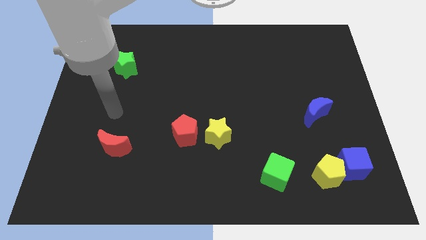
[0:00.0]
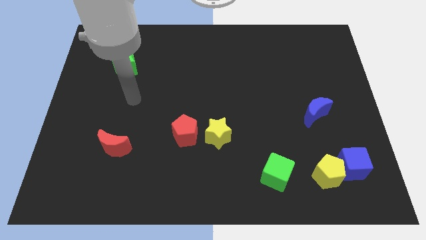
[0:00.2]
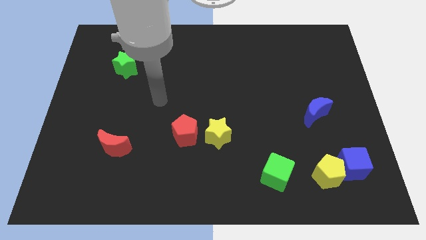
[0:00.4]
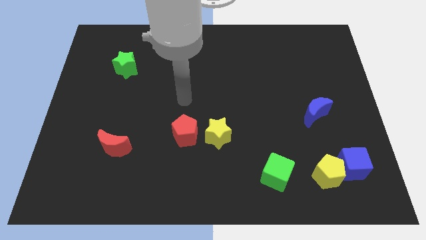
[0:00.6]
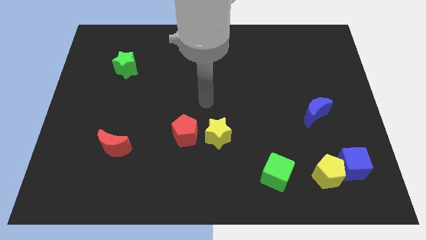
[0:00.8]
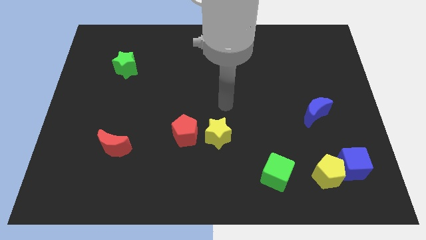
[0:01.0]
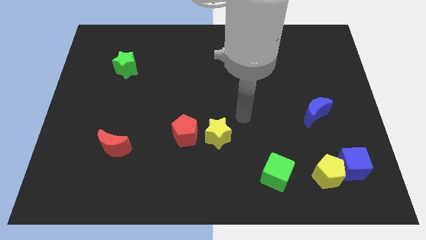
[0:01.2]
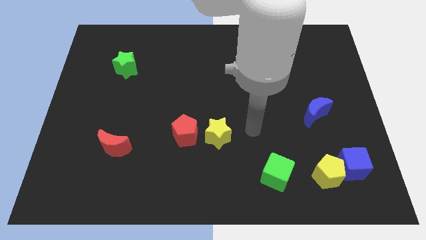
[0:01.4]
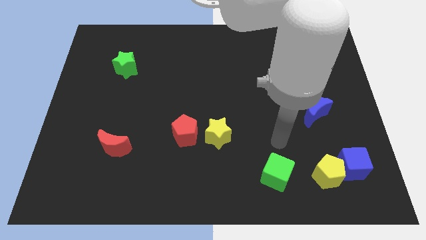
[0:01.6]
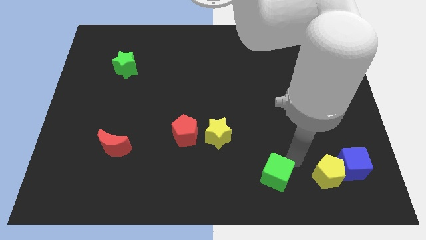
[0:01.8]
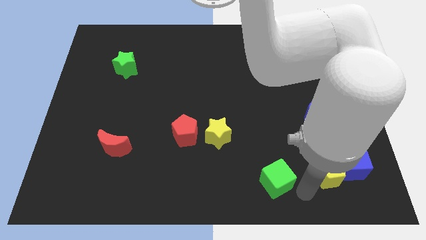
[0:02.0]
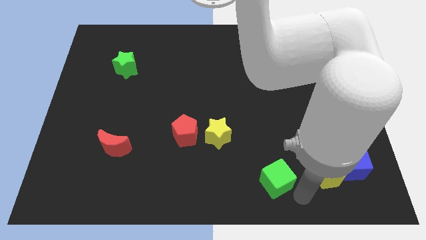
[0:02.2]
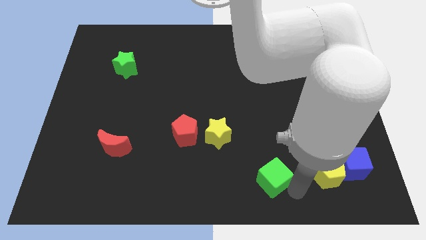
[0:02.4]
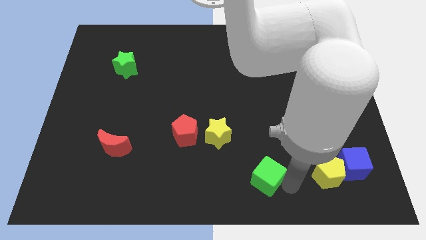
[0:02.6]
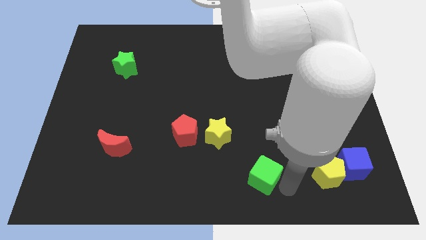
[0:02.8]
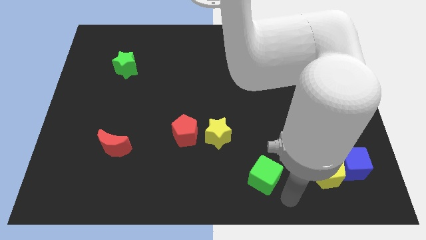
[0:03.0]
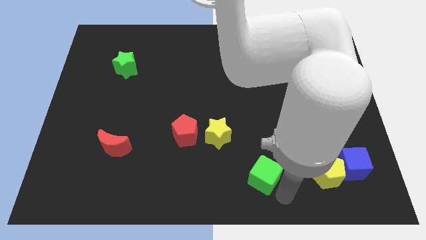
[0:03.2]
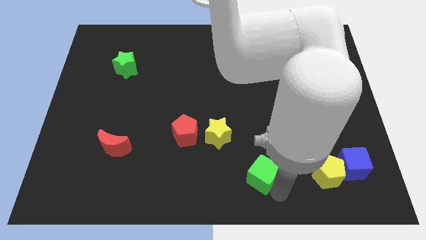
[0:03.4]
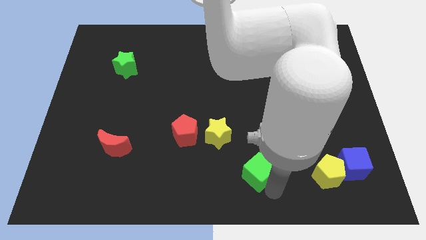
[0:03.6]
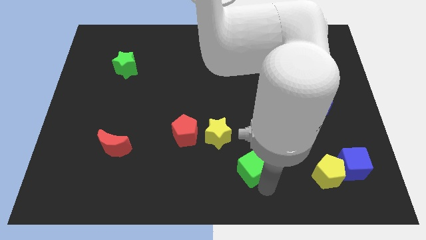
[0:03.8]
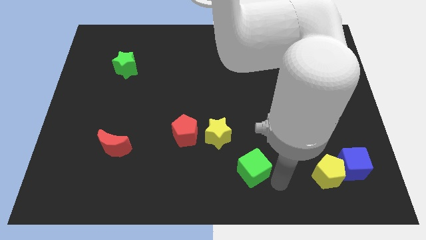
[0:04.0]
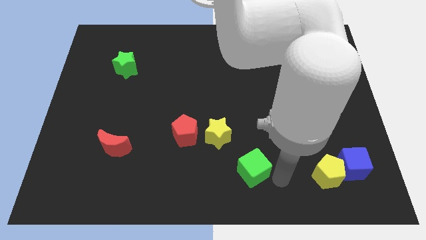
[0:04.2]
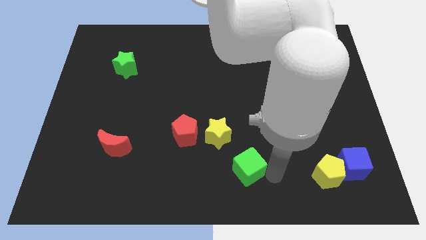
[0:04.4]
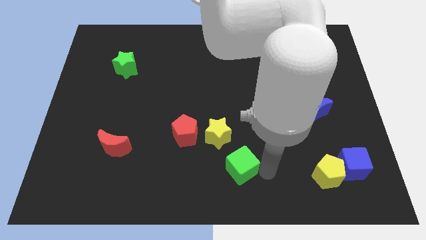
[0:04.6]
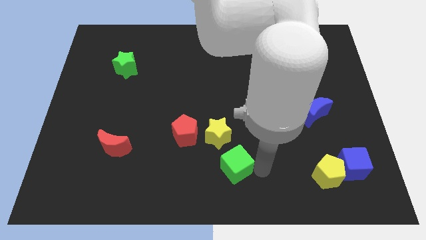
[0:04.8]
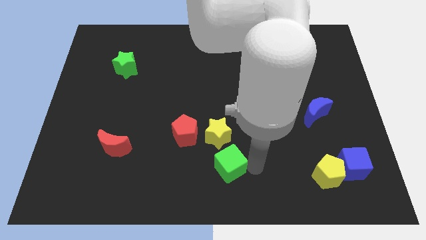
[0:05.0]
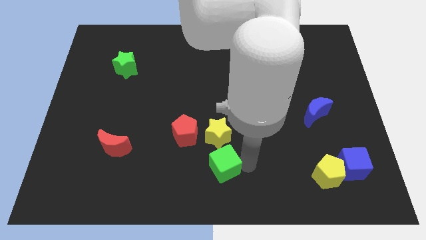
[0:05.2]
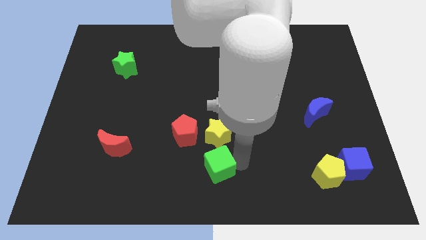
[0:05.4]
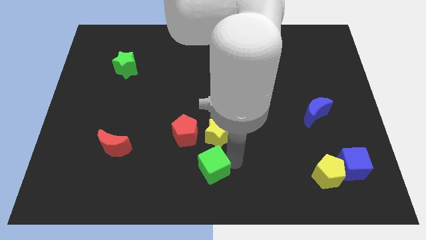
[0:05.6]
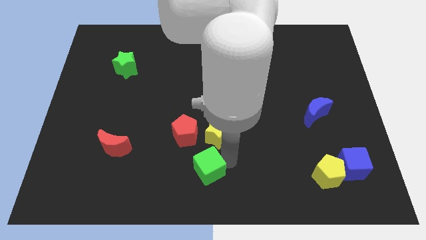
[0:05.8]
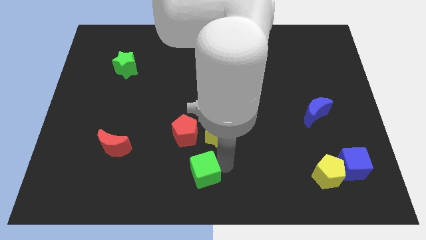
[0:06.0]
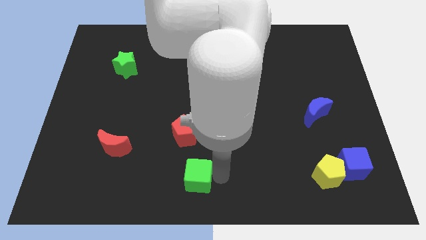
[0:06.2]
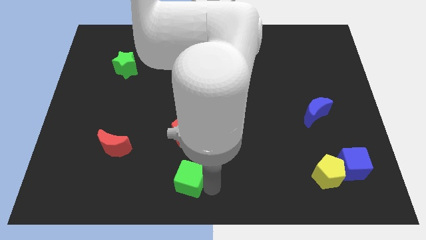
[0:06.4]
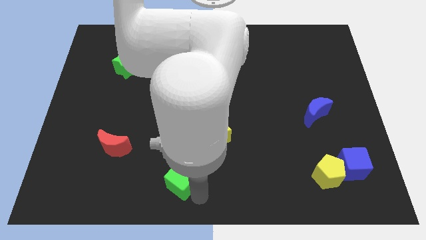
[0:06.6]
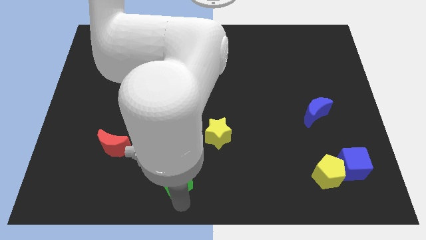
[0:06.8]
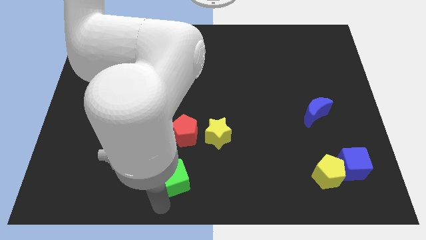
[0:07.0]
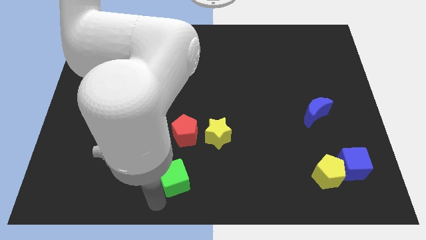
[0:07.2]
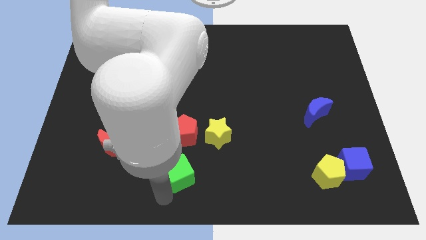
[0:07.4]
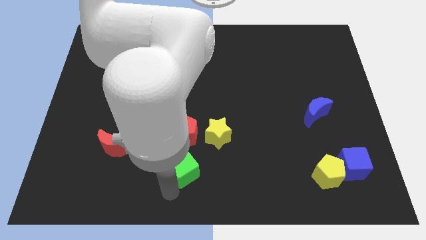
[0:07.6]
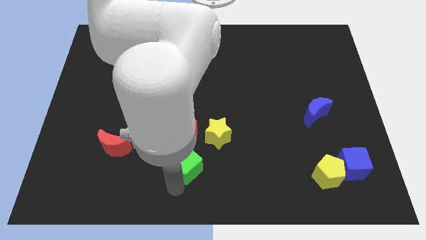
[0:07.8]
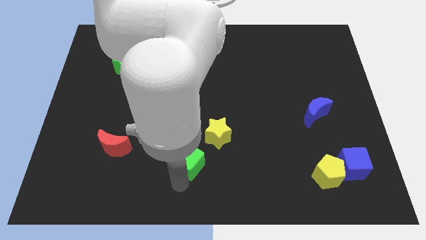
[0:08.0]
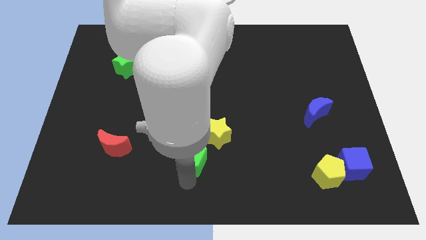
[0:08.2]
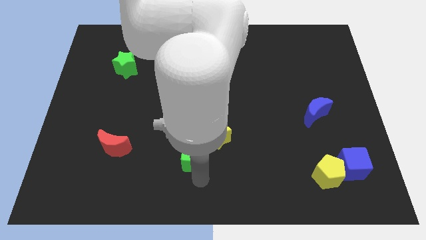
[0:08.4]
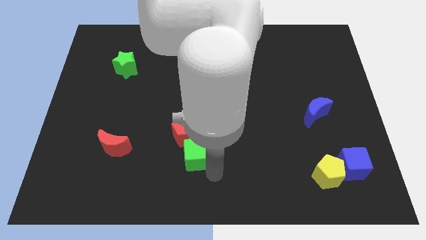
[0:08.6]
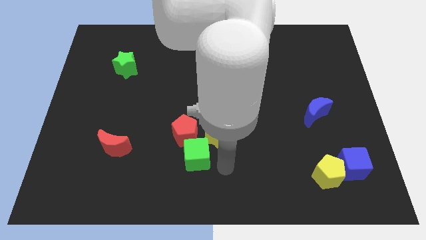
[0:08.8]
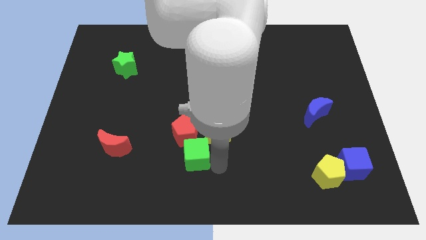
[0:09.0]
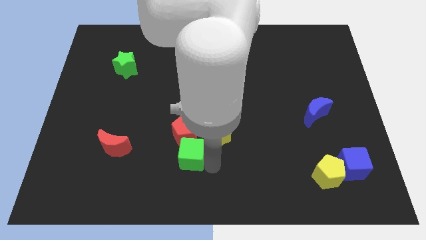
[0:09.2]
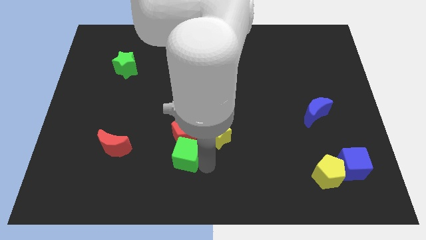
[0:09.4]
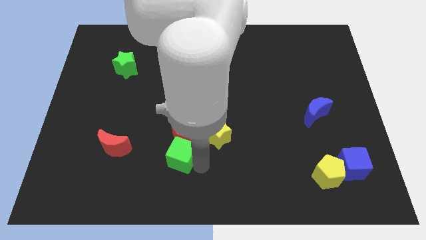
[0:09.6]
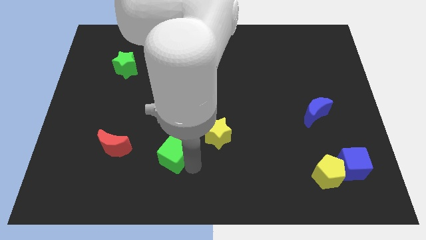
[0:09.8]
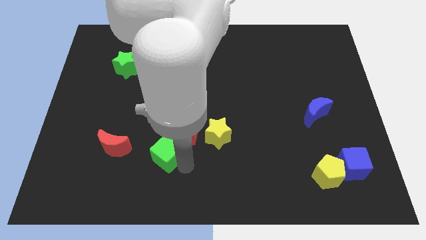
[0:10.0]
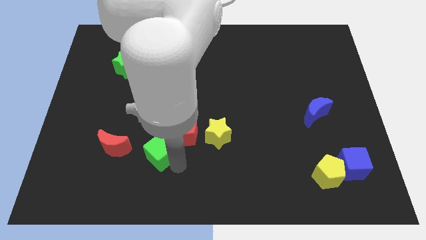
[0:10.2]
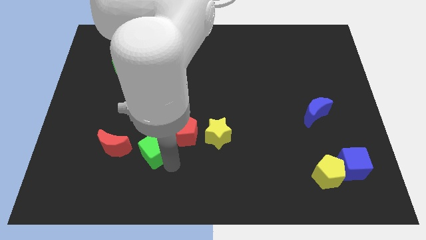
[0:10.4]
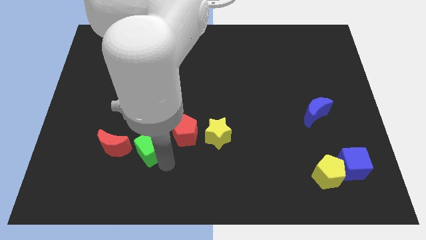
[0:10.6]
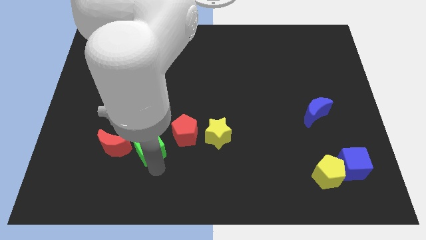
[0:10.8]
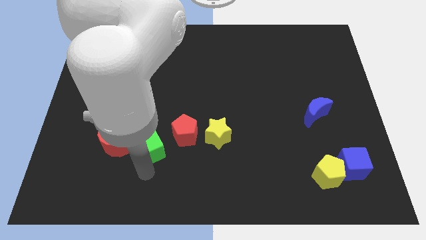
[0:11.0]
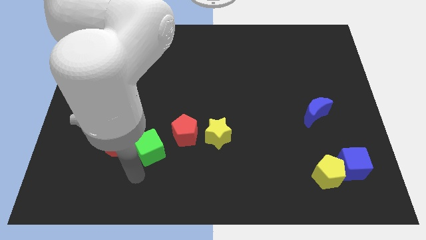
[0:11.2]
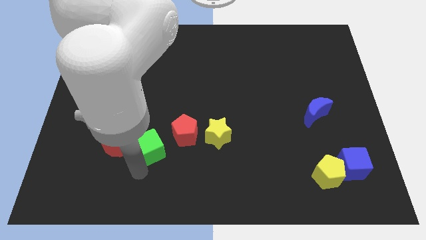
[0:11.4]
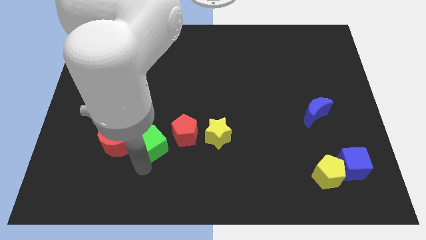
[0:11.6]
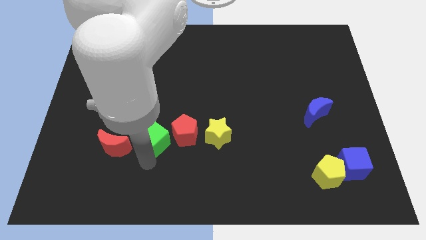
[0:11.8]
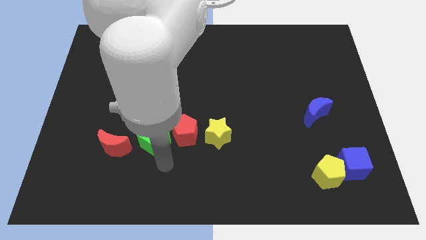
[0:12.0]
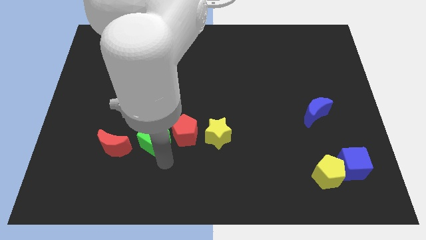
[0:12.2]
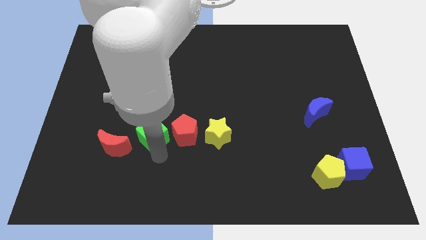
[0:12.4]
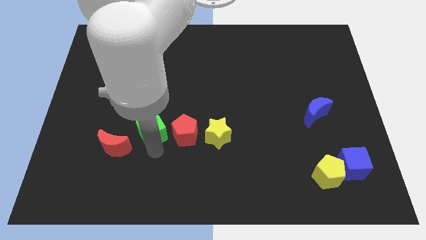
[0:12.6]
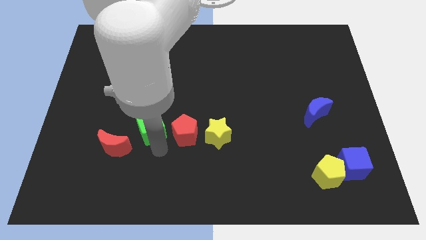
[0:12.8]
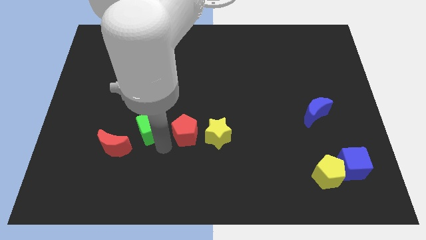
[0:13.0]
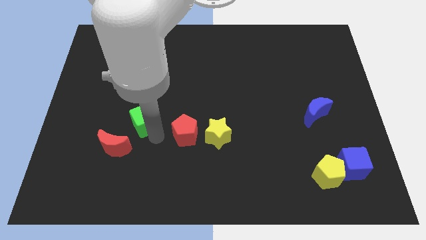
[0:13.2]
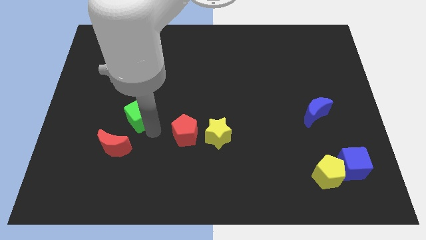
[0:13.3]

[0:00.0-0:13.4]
put the green cube to the top side of the red moon
